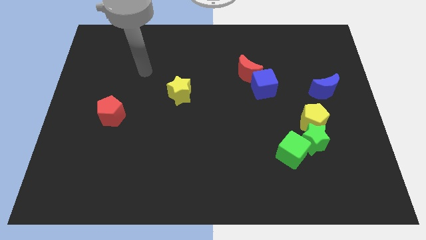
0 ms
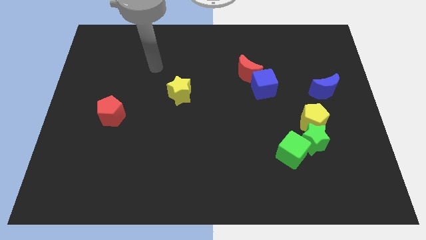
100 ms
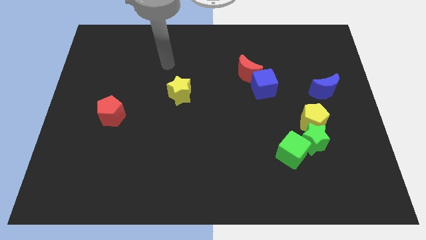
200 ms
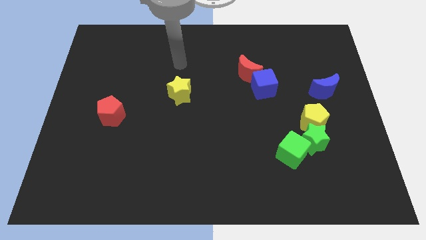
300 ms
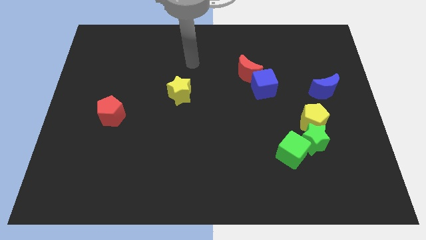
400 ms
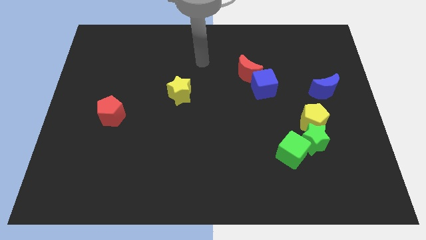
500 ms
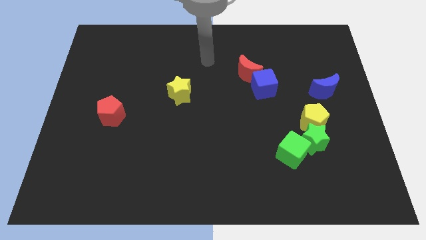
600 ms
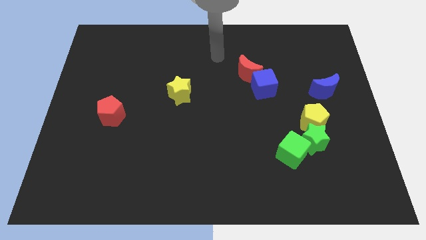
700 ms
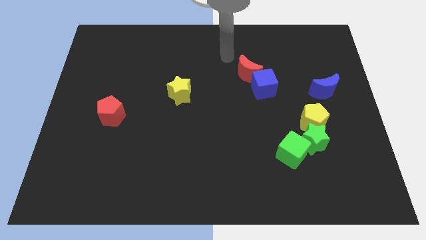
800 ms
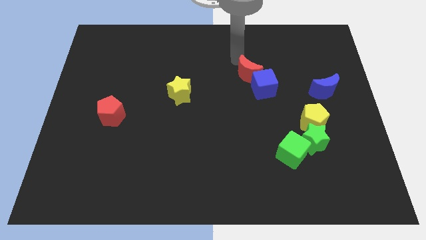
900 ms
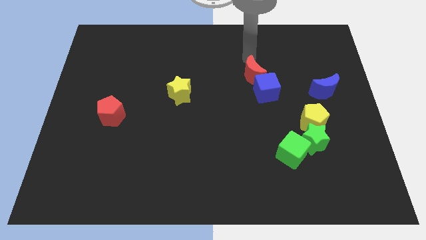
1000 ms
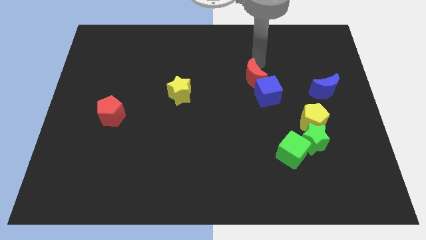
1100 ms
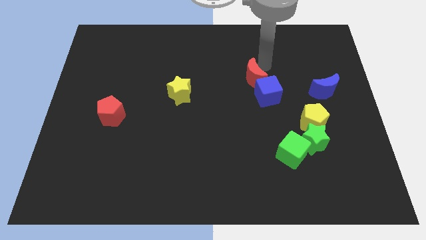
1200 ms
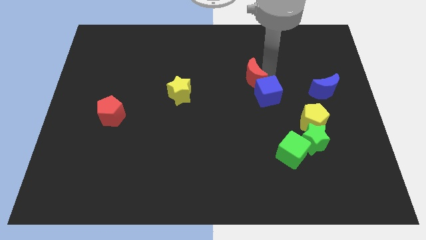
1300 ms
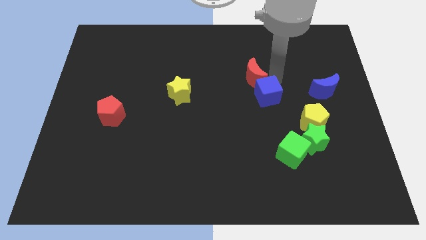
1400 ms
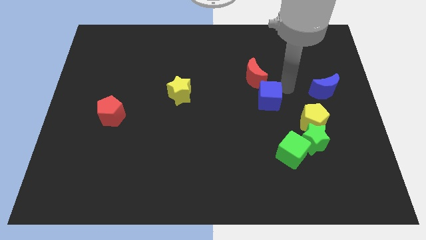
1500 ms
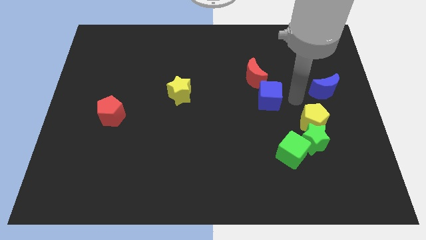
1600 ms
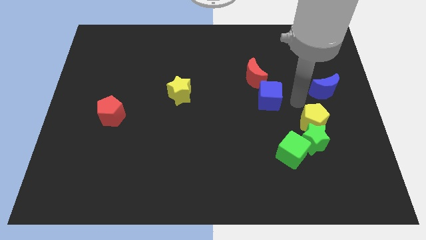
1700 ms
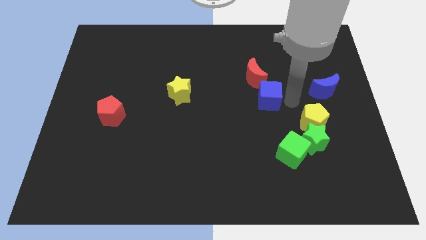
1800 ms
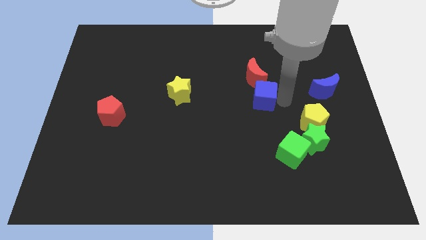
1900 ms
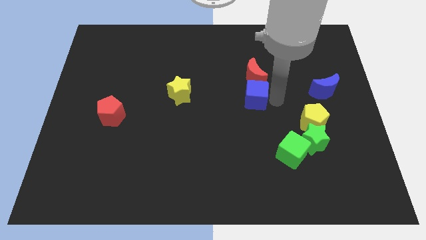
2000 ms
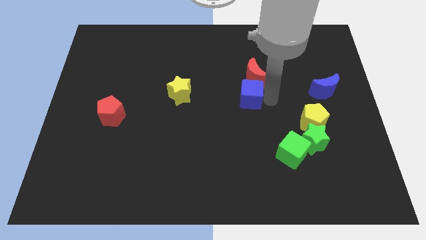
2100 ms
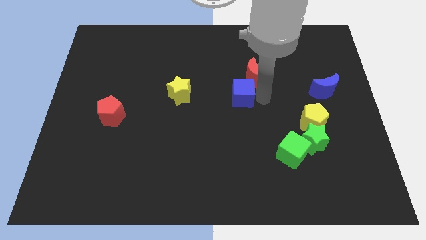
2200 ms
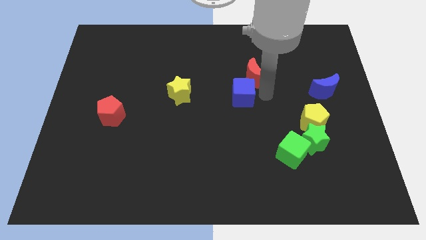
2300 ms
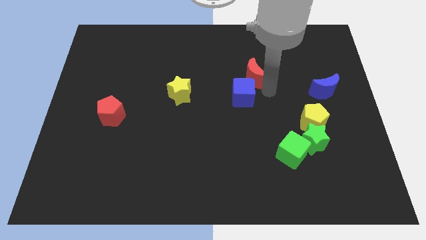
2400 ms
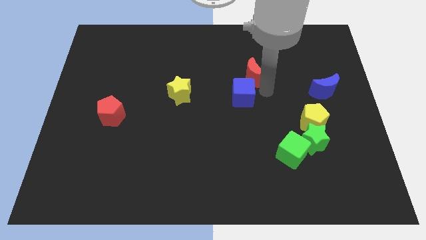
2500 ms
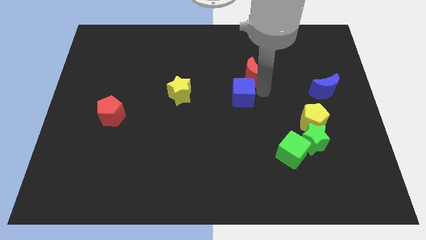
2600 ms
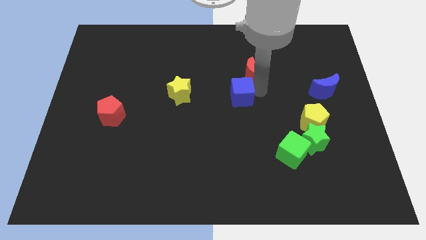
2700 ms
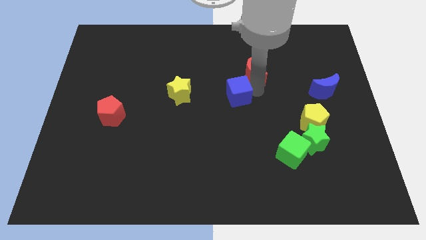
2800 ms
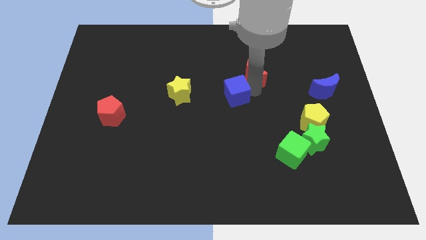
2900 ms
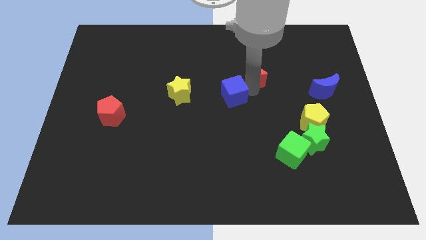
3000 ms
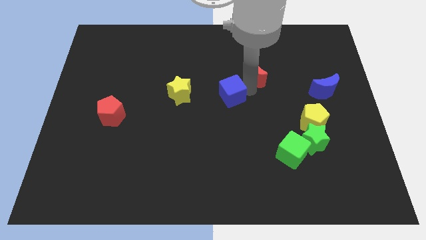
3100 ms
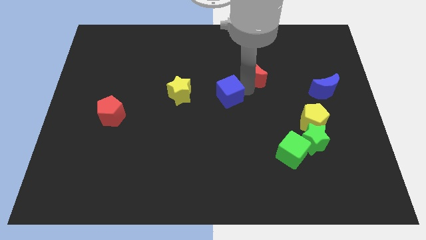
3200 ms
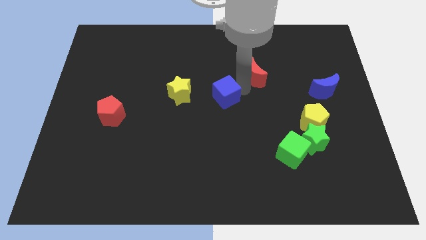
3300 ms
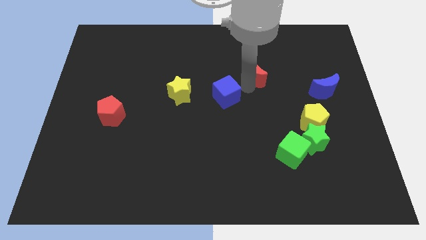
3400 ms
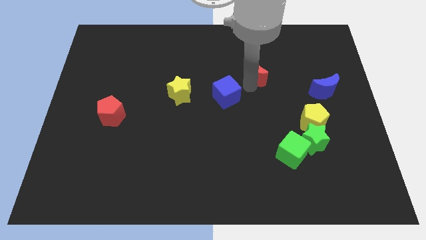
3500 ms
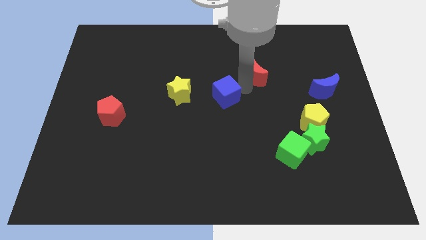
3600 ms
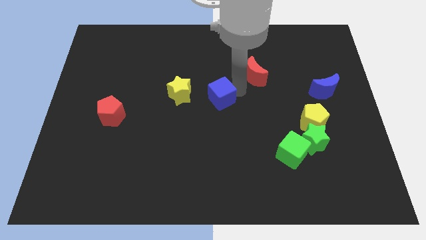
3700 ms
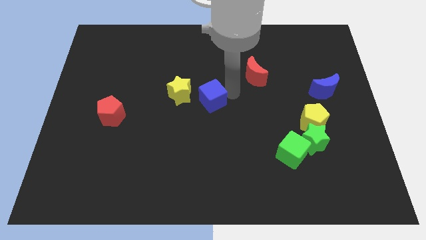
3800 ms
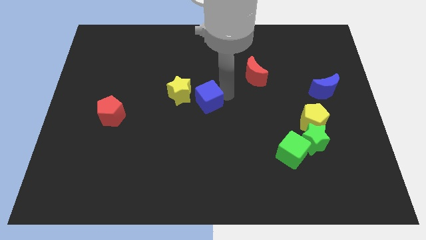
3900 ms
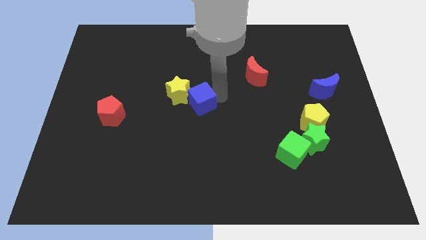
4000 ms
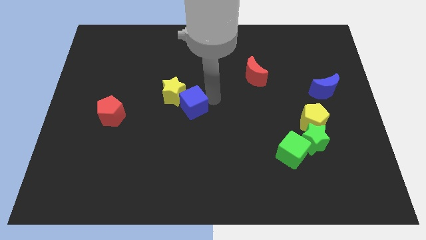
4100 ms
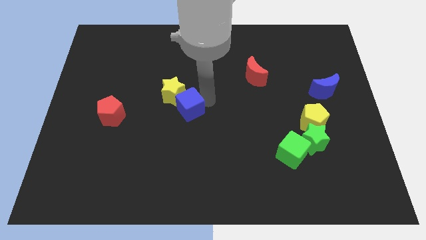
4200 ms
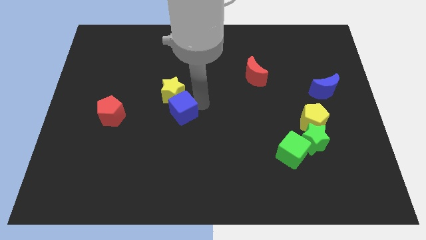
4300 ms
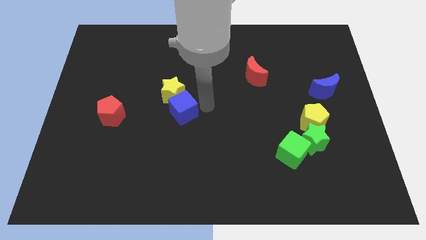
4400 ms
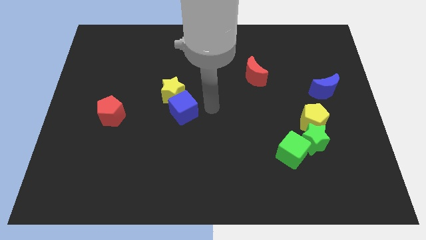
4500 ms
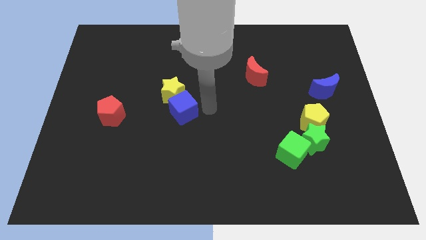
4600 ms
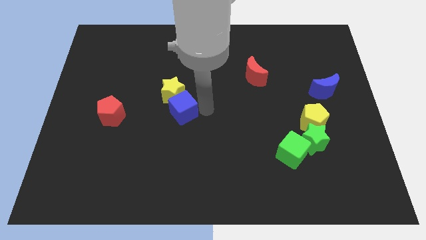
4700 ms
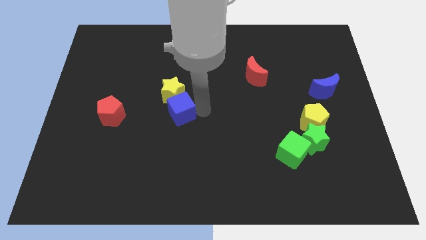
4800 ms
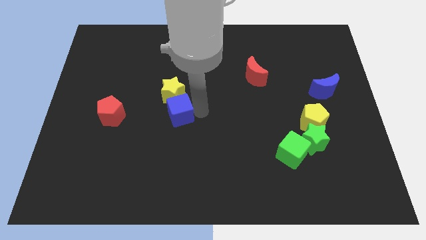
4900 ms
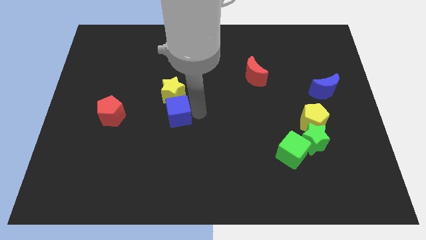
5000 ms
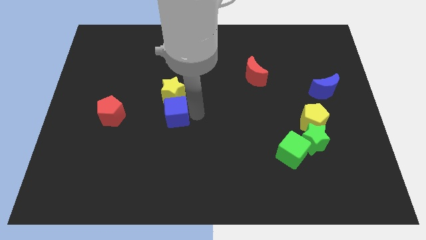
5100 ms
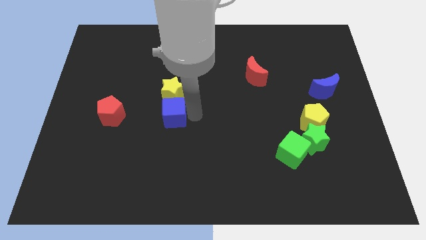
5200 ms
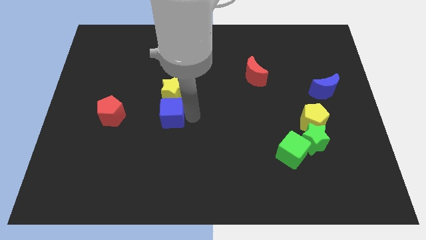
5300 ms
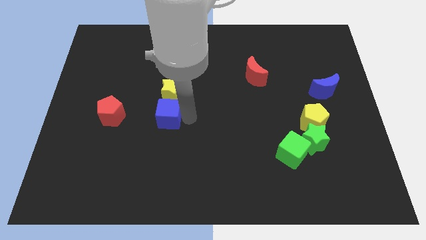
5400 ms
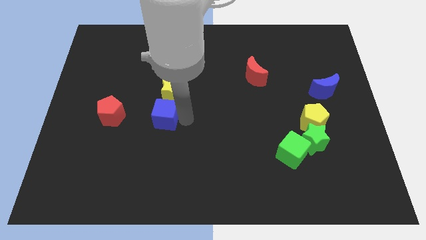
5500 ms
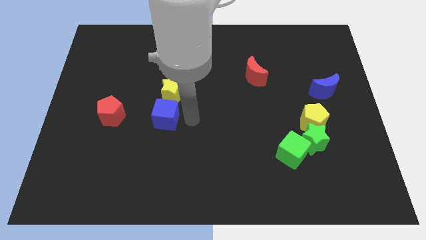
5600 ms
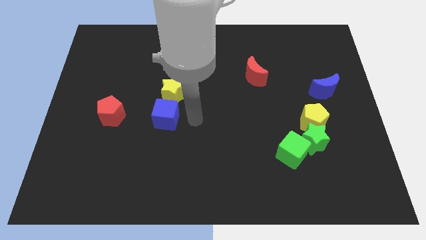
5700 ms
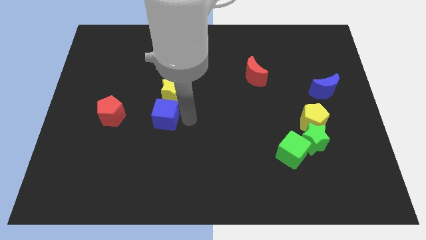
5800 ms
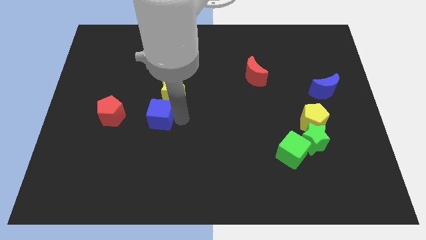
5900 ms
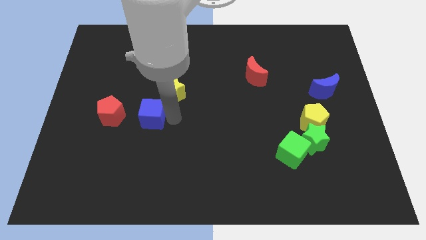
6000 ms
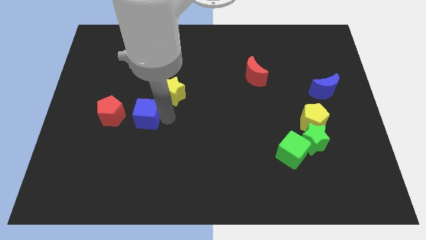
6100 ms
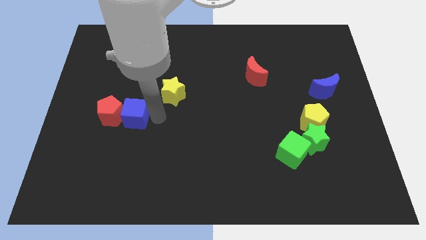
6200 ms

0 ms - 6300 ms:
push the blue cube next to the red pentagon

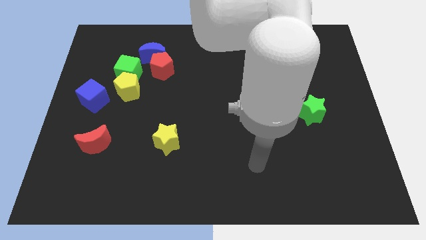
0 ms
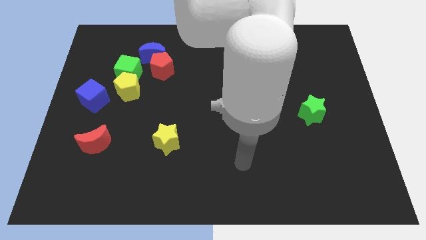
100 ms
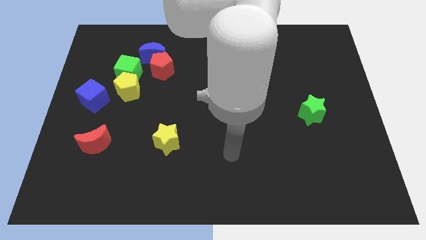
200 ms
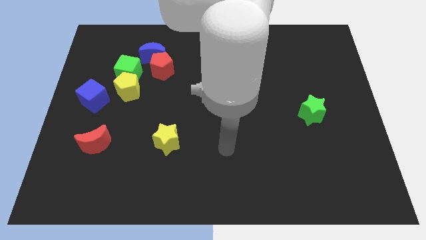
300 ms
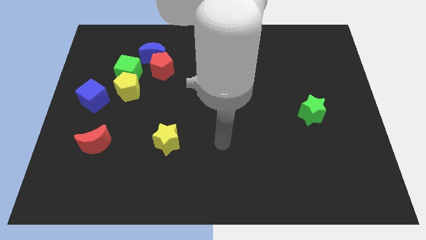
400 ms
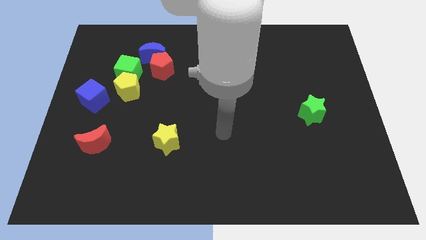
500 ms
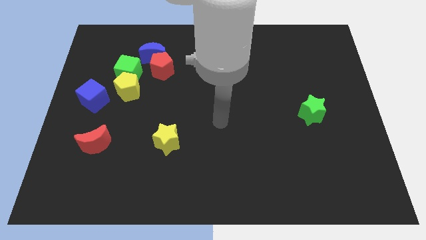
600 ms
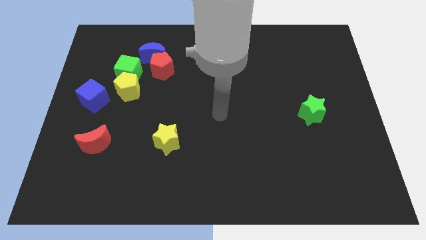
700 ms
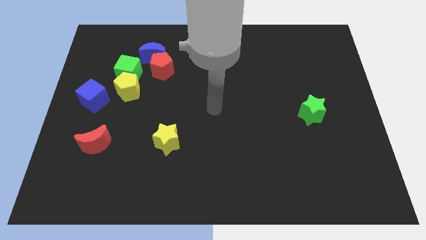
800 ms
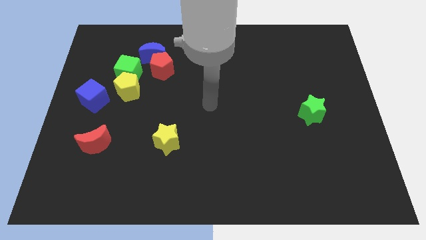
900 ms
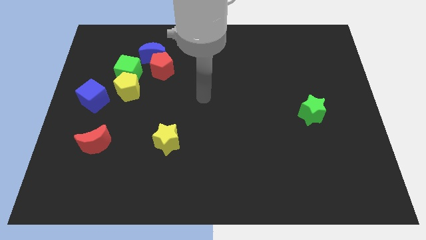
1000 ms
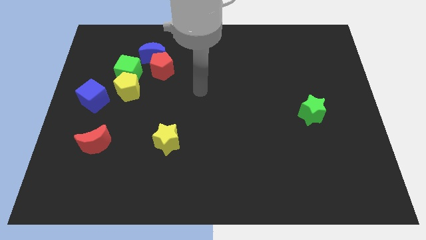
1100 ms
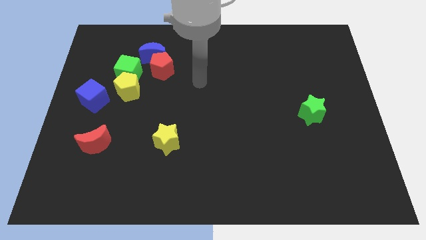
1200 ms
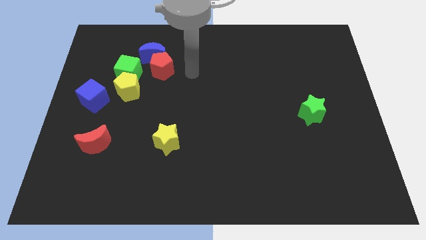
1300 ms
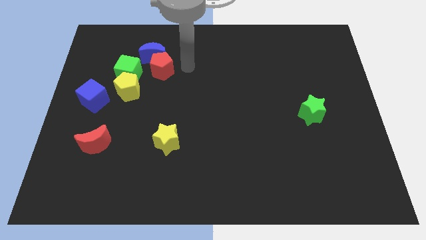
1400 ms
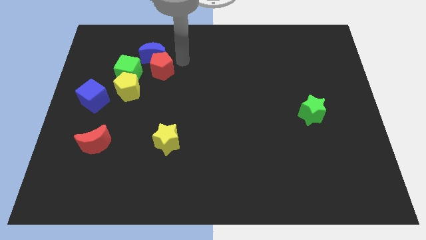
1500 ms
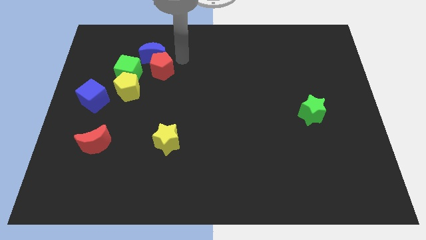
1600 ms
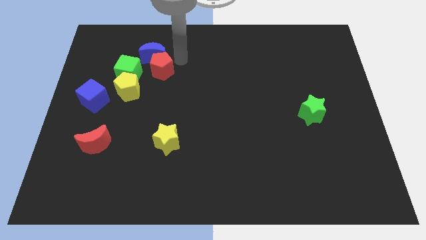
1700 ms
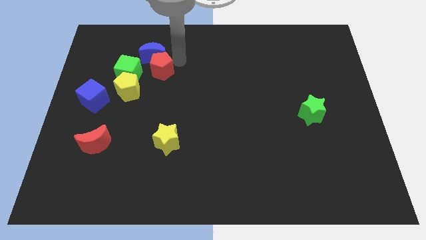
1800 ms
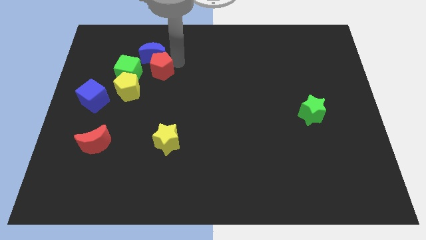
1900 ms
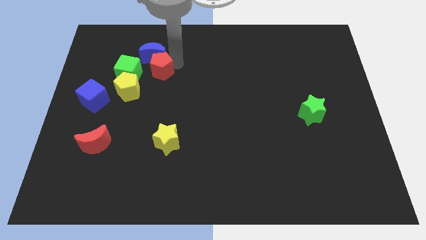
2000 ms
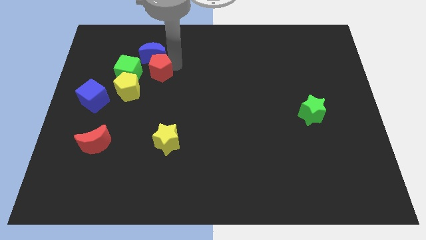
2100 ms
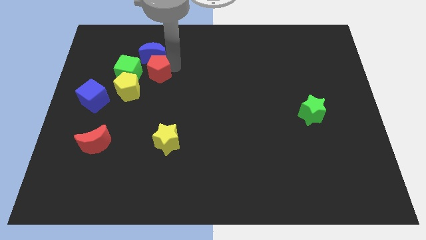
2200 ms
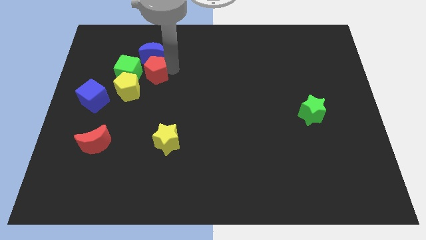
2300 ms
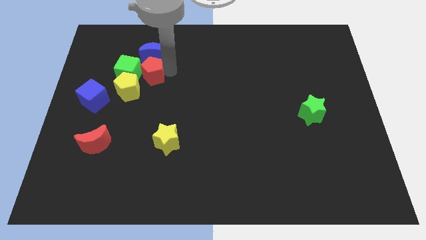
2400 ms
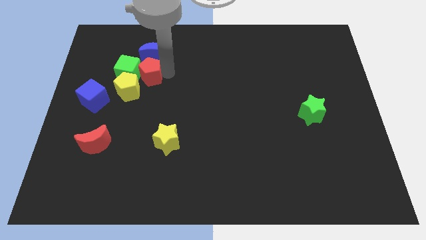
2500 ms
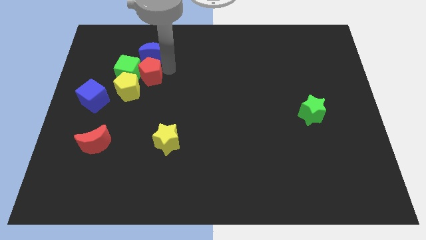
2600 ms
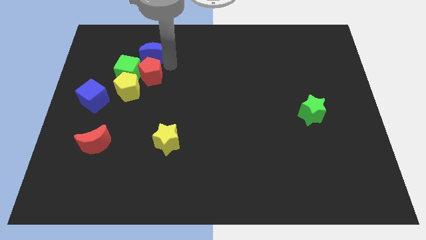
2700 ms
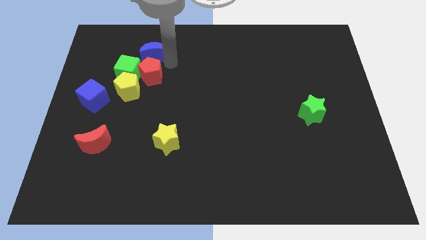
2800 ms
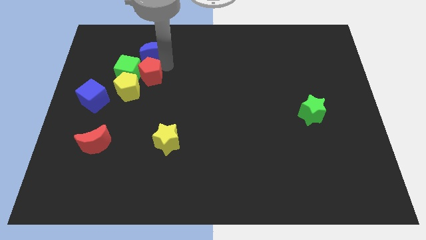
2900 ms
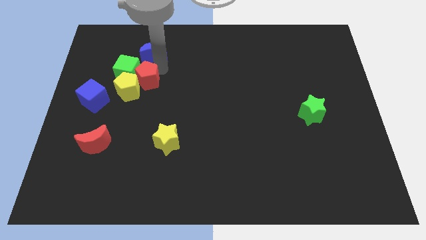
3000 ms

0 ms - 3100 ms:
push the red pentagon close to the yellow pentagon
